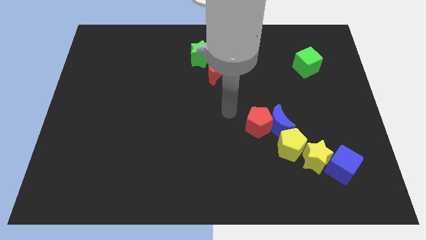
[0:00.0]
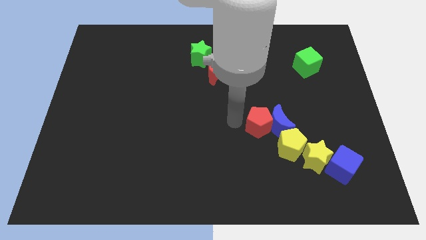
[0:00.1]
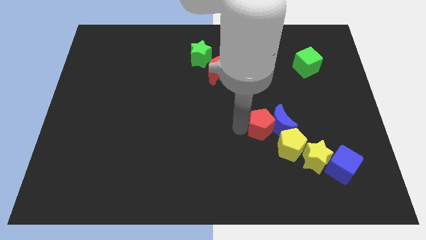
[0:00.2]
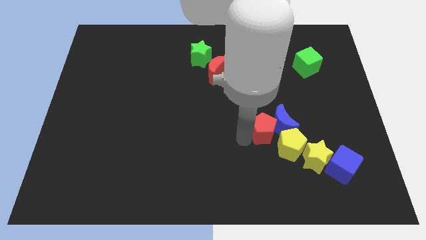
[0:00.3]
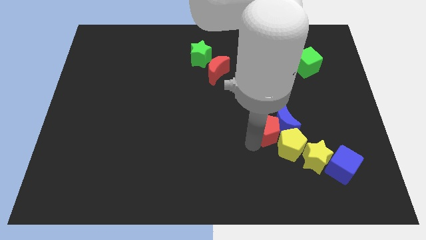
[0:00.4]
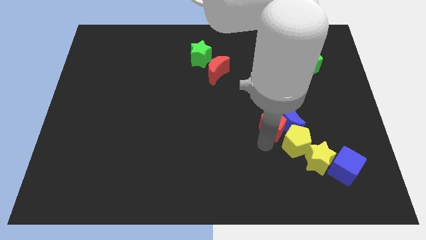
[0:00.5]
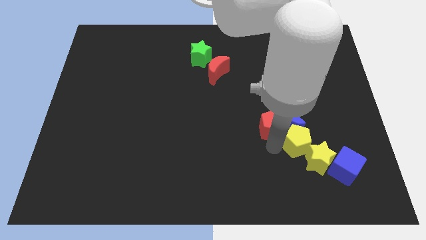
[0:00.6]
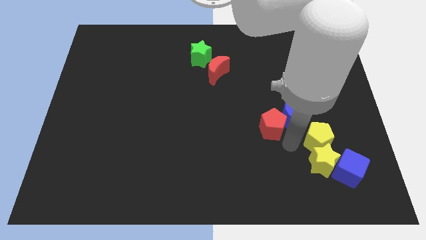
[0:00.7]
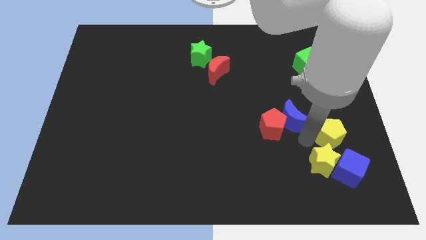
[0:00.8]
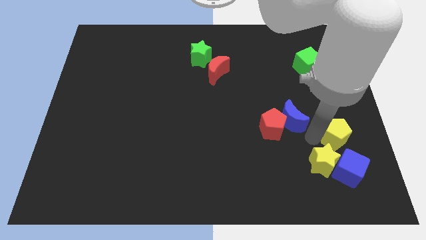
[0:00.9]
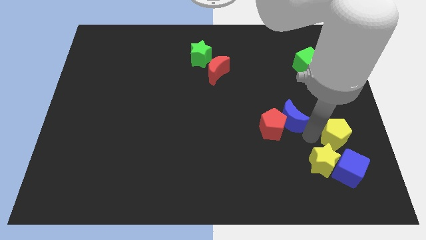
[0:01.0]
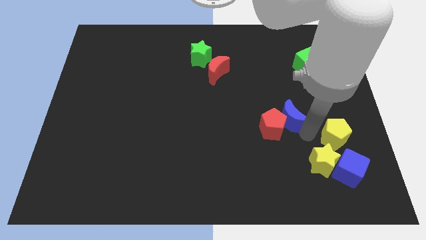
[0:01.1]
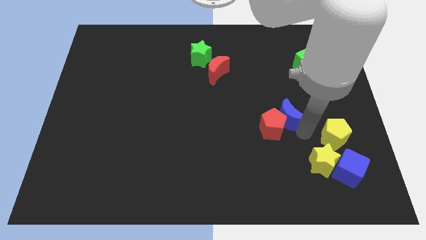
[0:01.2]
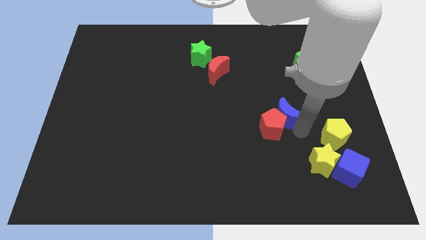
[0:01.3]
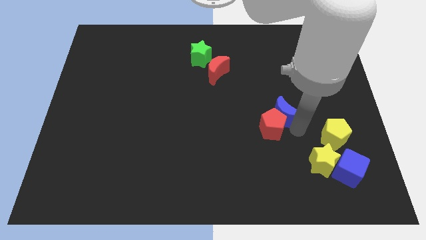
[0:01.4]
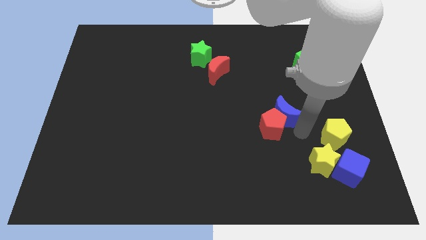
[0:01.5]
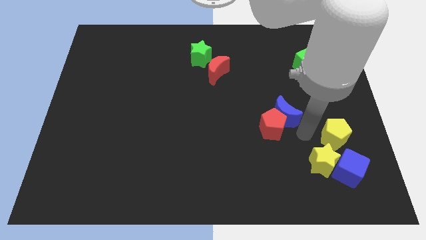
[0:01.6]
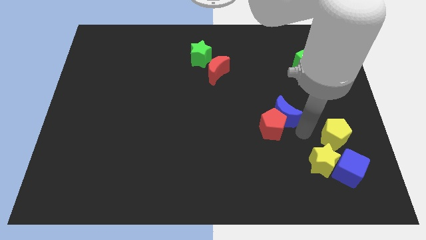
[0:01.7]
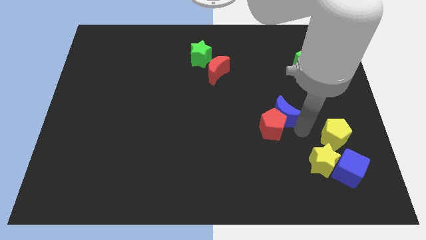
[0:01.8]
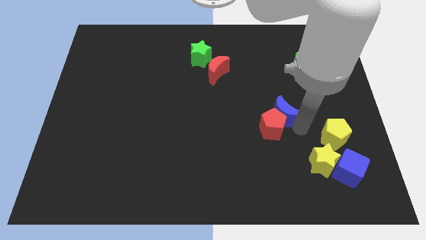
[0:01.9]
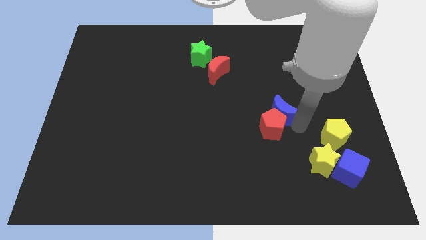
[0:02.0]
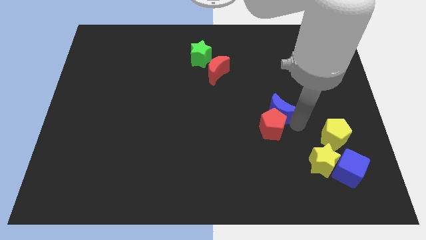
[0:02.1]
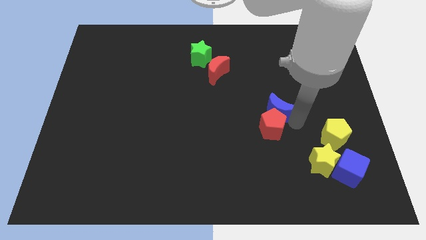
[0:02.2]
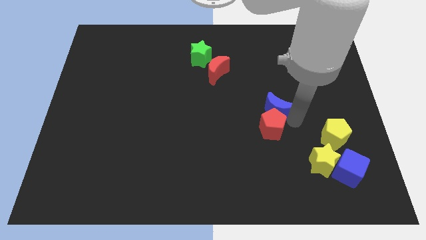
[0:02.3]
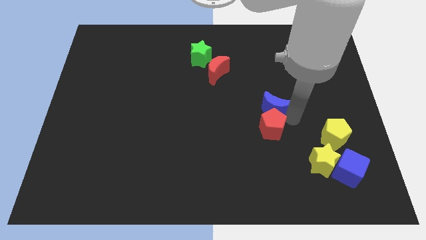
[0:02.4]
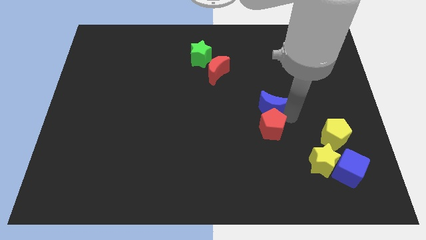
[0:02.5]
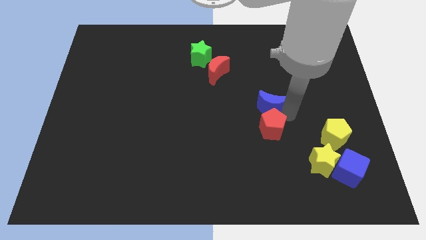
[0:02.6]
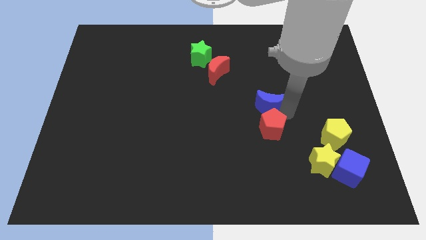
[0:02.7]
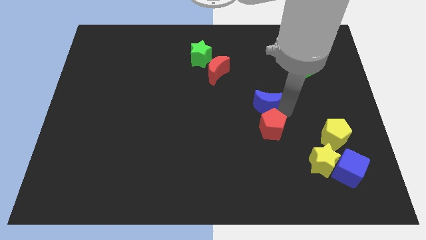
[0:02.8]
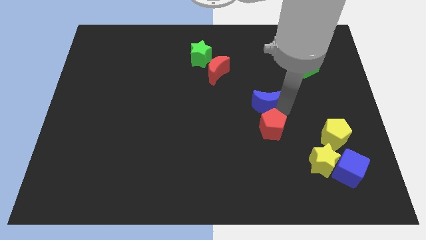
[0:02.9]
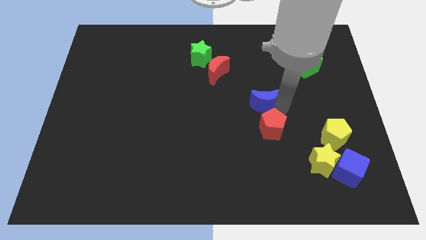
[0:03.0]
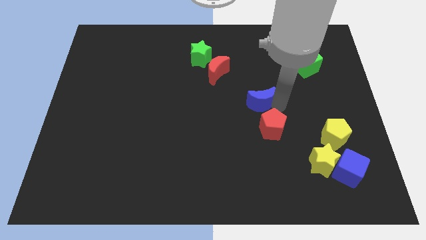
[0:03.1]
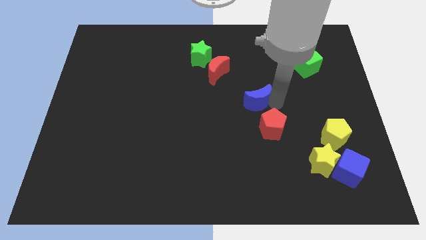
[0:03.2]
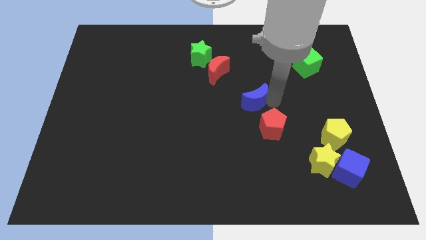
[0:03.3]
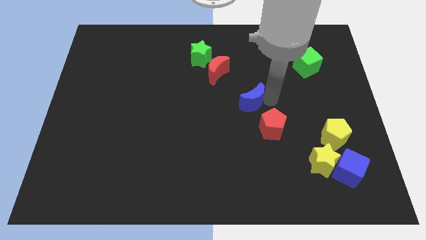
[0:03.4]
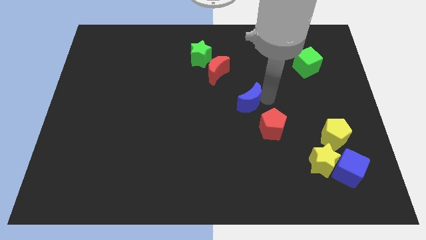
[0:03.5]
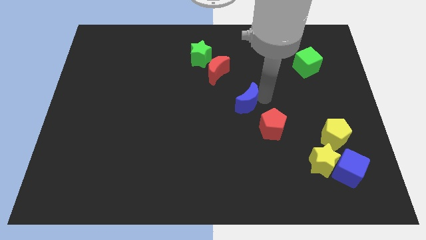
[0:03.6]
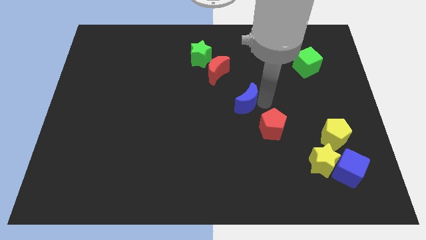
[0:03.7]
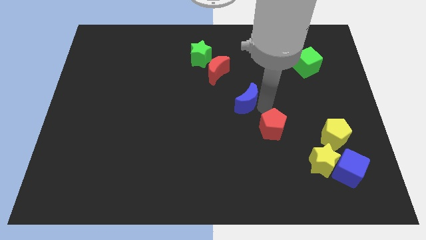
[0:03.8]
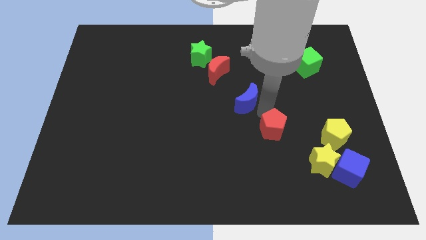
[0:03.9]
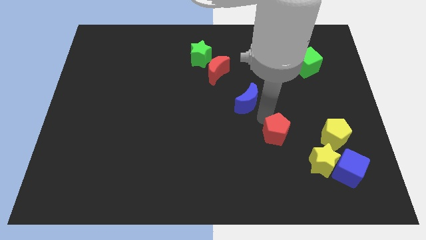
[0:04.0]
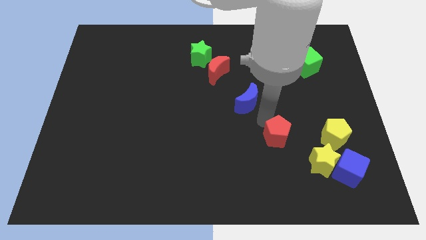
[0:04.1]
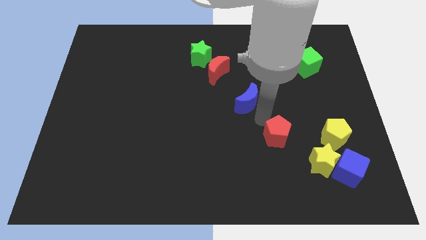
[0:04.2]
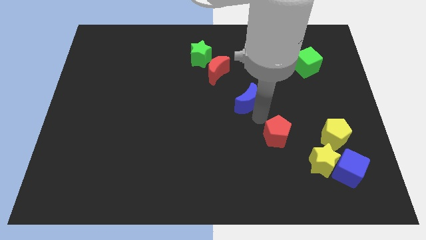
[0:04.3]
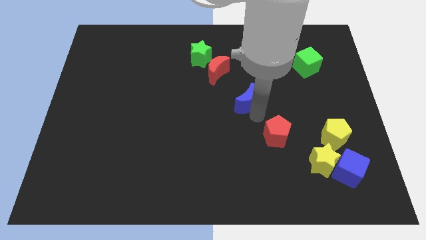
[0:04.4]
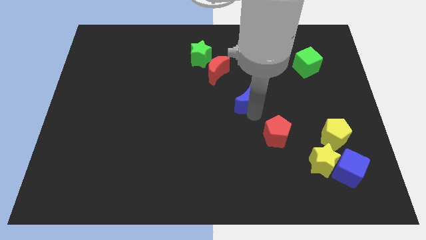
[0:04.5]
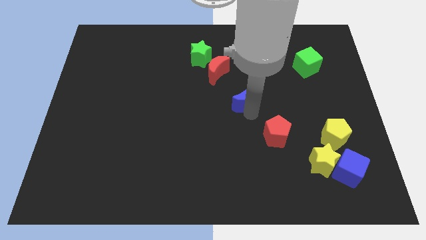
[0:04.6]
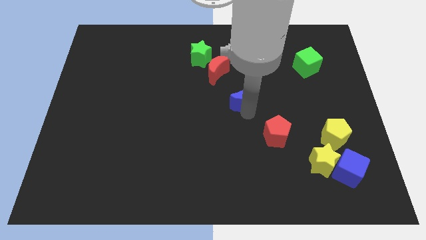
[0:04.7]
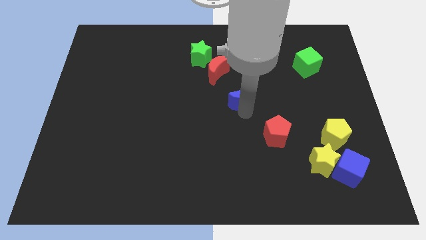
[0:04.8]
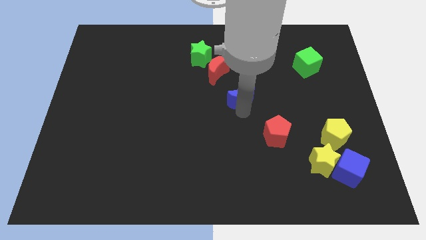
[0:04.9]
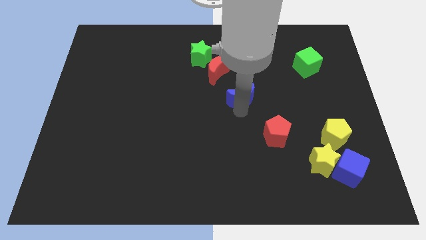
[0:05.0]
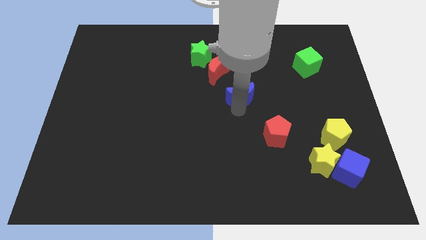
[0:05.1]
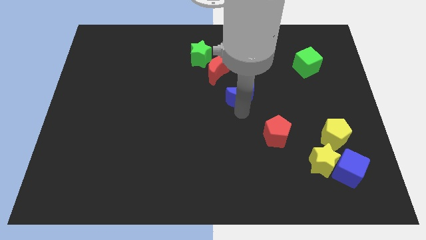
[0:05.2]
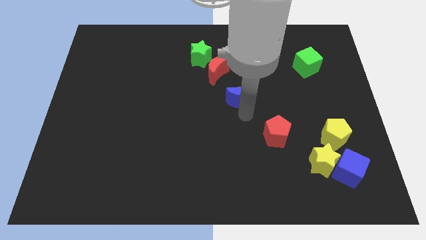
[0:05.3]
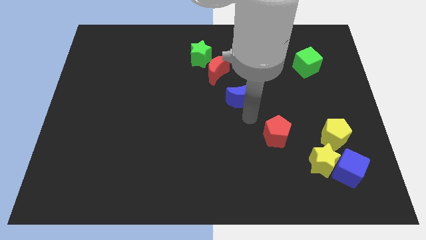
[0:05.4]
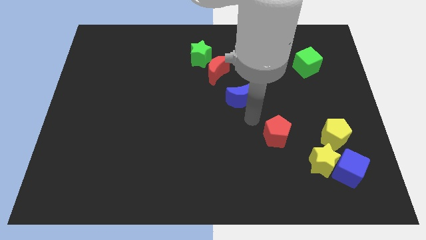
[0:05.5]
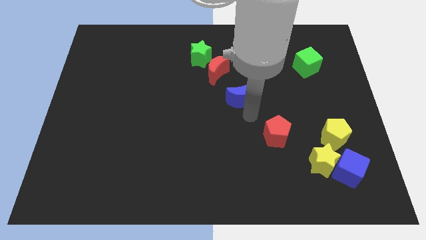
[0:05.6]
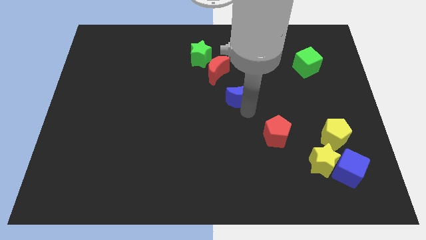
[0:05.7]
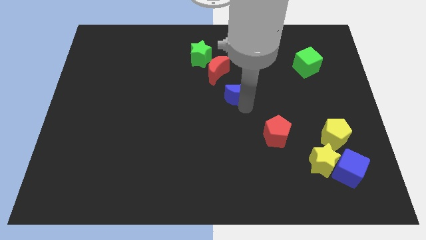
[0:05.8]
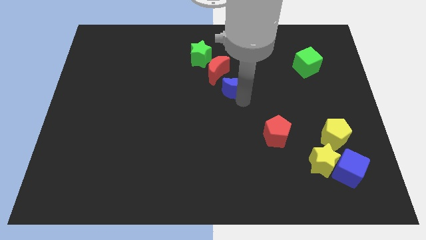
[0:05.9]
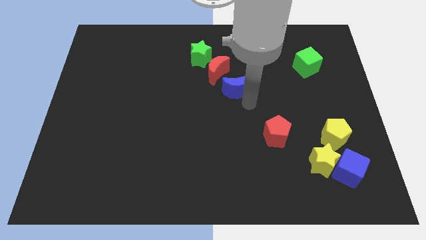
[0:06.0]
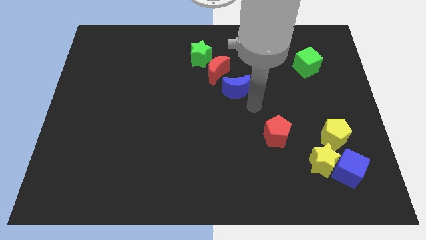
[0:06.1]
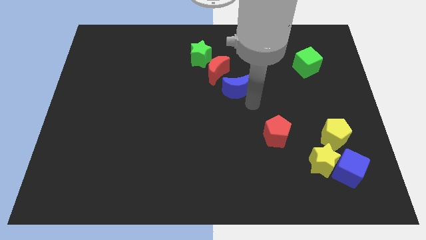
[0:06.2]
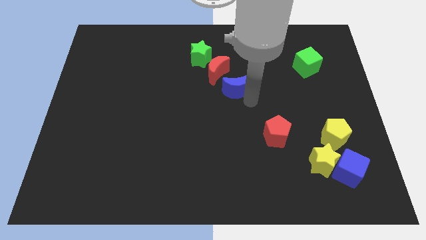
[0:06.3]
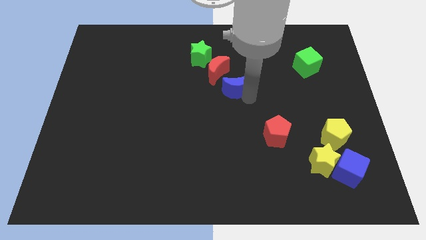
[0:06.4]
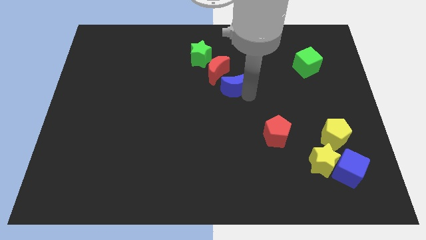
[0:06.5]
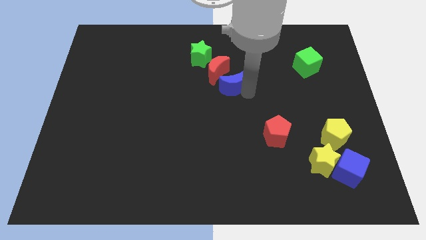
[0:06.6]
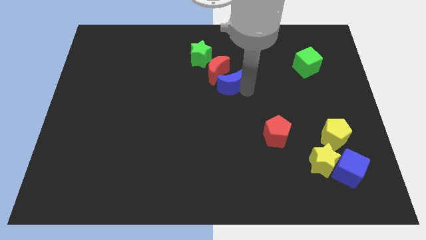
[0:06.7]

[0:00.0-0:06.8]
move the blue moon towards the red moon
